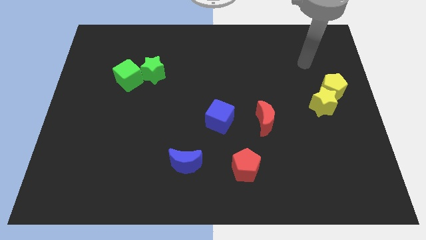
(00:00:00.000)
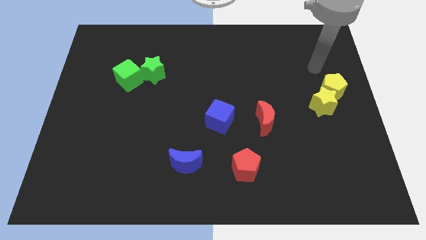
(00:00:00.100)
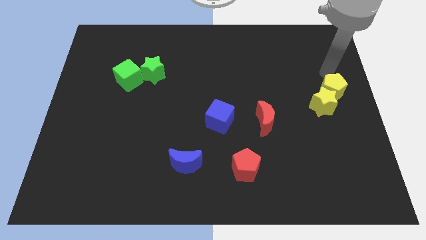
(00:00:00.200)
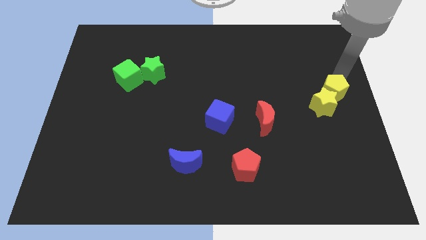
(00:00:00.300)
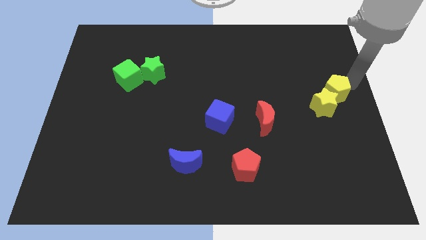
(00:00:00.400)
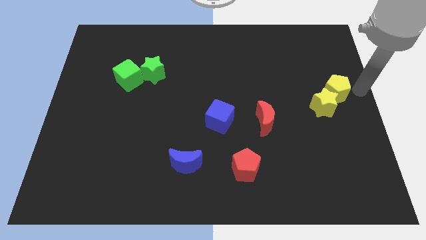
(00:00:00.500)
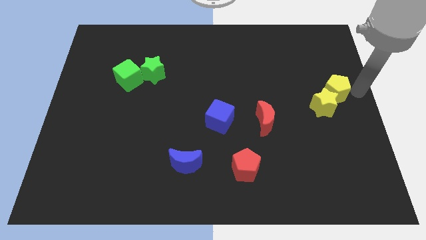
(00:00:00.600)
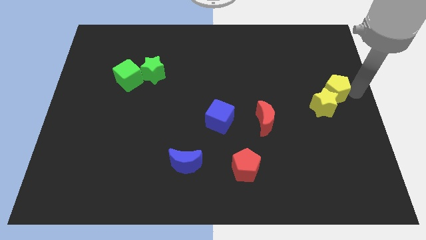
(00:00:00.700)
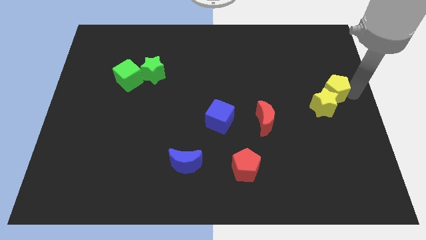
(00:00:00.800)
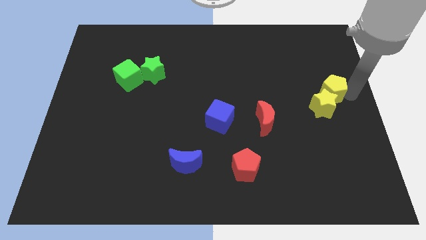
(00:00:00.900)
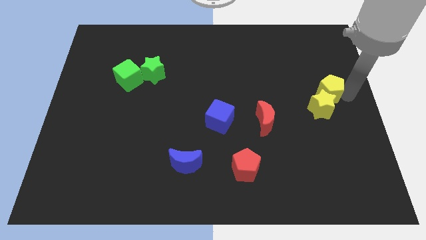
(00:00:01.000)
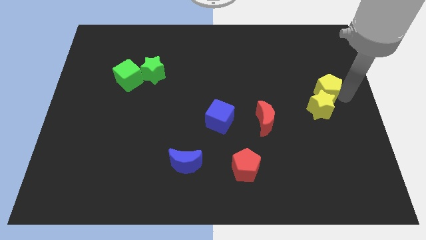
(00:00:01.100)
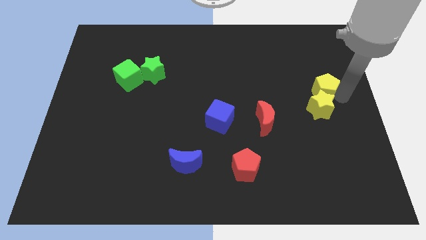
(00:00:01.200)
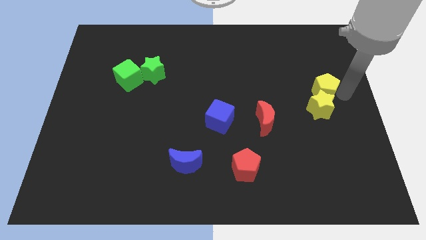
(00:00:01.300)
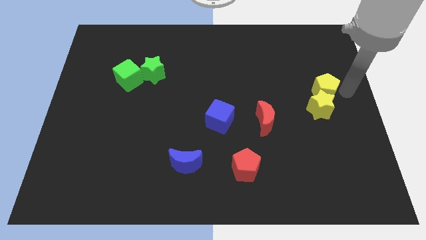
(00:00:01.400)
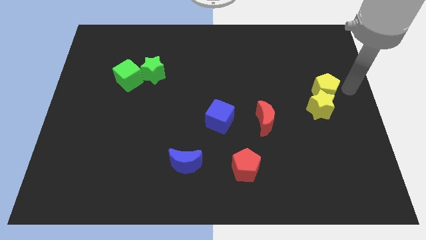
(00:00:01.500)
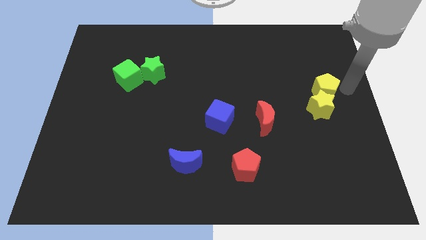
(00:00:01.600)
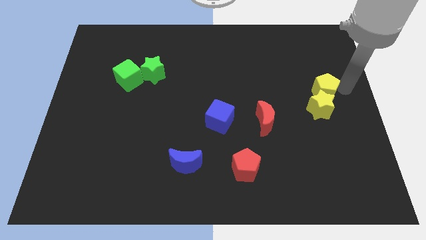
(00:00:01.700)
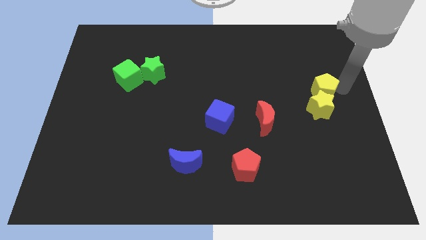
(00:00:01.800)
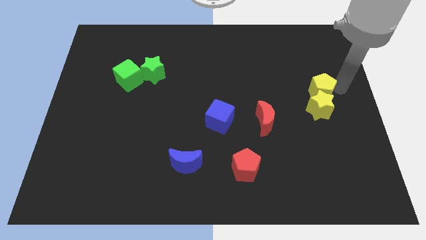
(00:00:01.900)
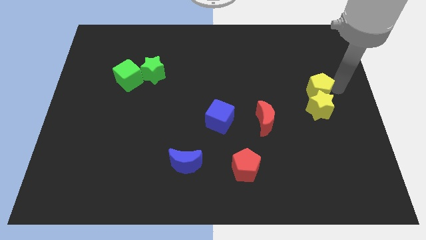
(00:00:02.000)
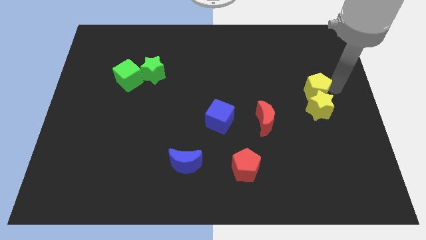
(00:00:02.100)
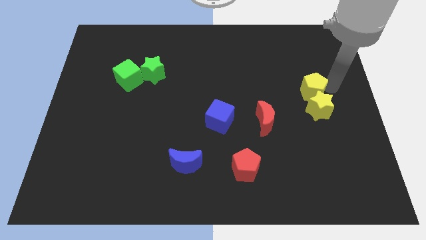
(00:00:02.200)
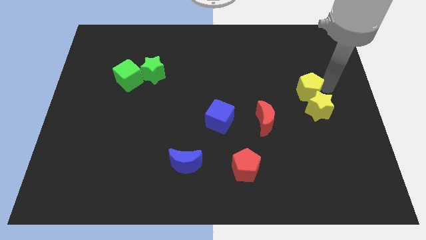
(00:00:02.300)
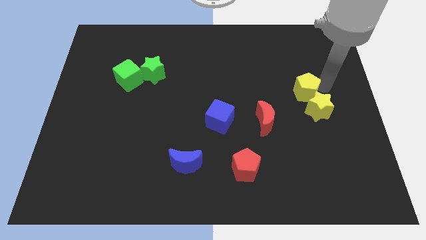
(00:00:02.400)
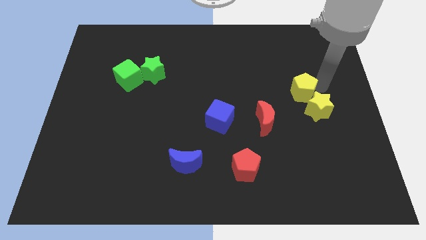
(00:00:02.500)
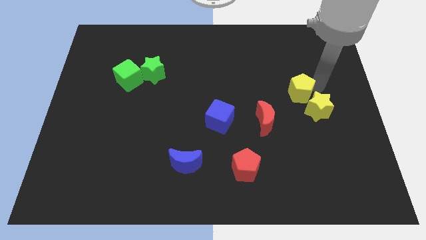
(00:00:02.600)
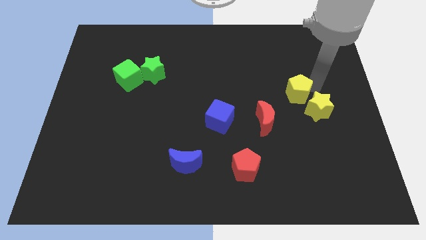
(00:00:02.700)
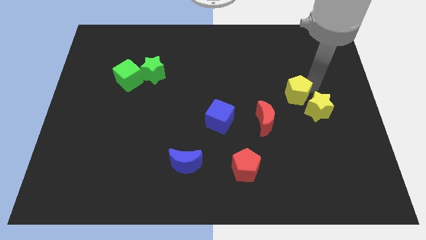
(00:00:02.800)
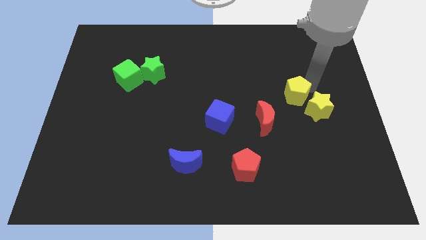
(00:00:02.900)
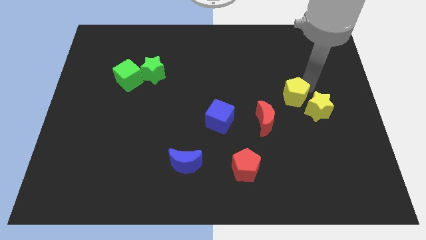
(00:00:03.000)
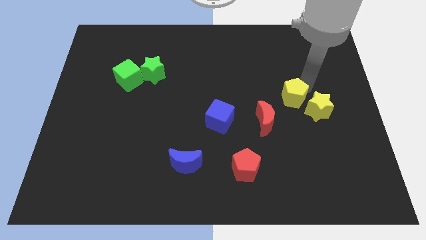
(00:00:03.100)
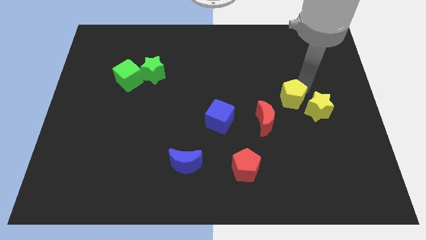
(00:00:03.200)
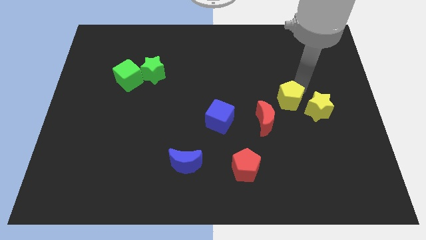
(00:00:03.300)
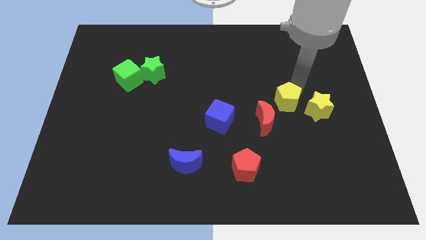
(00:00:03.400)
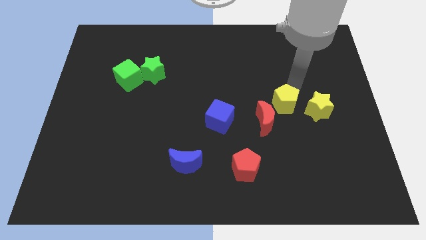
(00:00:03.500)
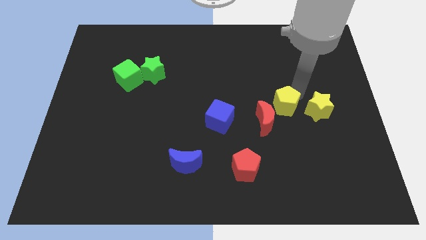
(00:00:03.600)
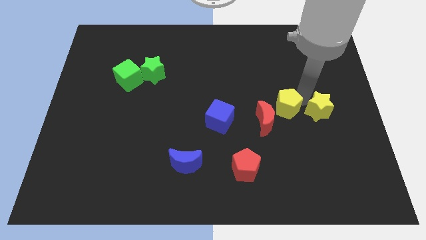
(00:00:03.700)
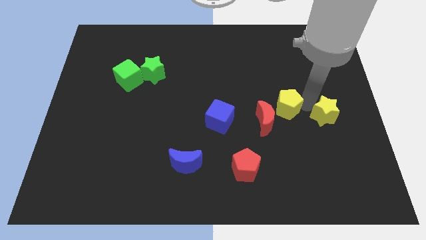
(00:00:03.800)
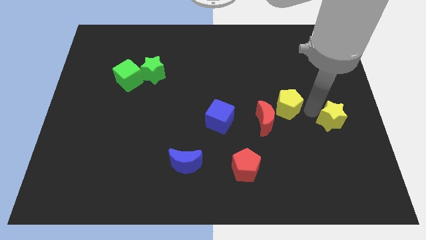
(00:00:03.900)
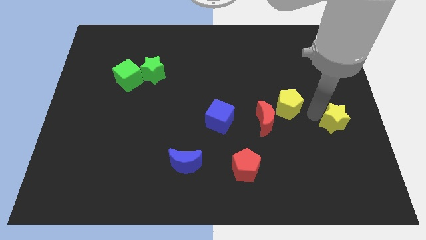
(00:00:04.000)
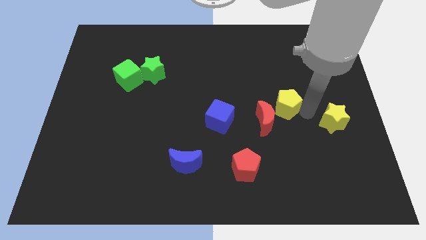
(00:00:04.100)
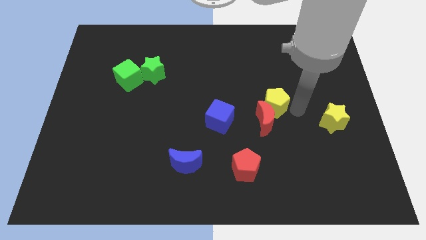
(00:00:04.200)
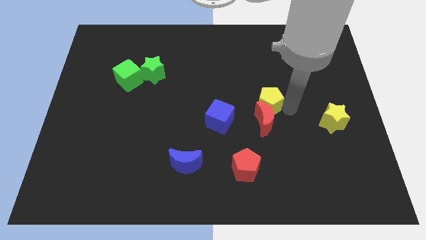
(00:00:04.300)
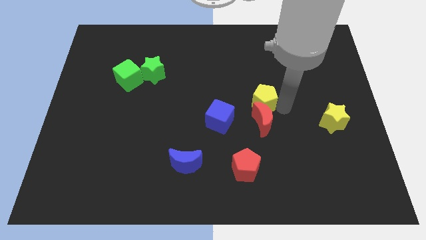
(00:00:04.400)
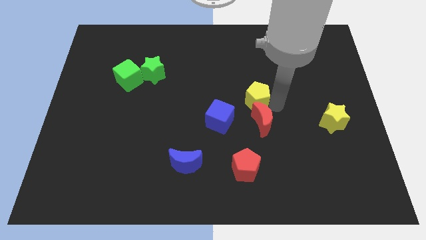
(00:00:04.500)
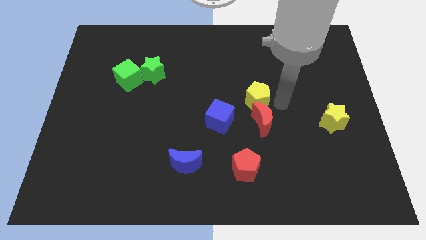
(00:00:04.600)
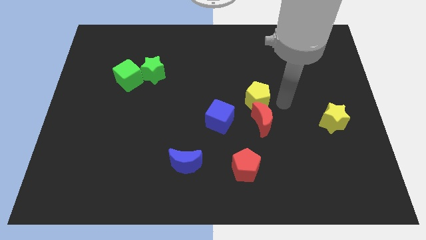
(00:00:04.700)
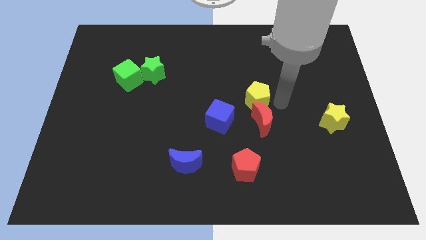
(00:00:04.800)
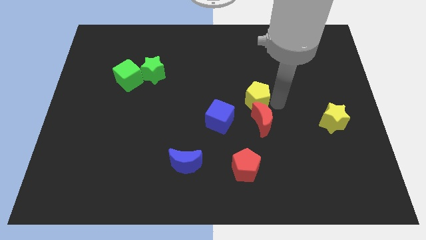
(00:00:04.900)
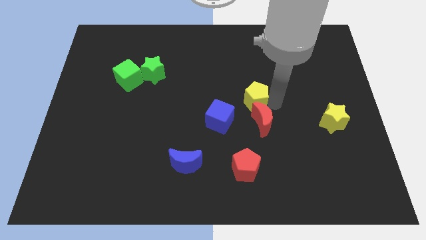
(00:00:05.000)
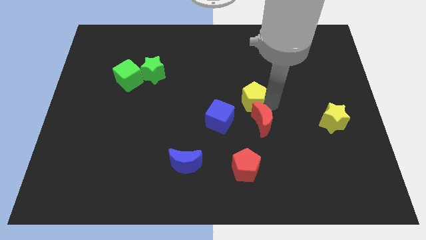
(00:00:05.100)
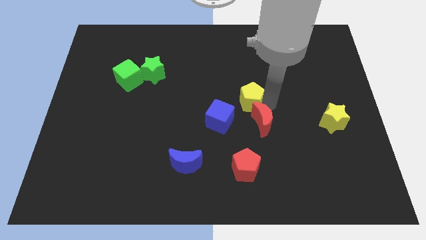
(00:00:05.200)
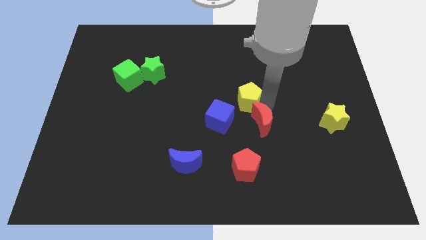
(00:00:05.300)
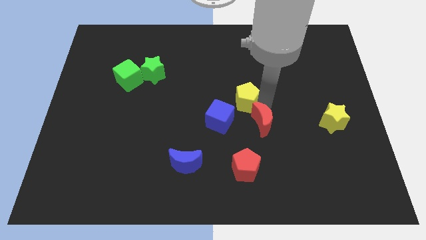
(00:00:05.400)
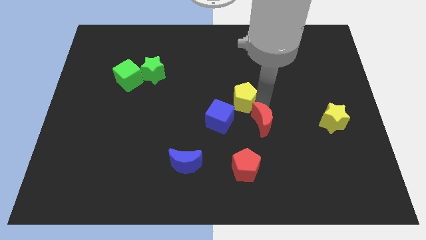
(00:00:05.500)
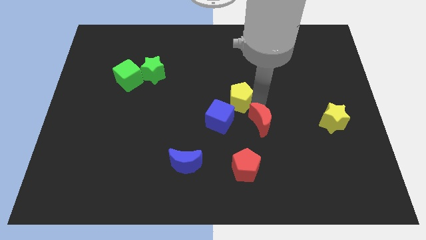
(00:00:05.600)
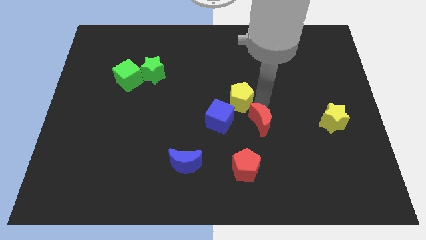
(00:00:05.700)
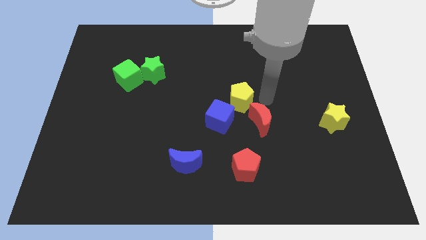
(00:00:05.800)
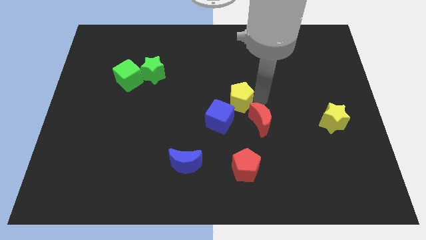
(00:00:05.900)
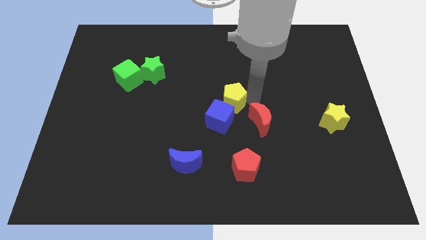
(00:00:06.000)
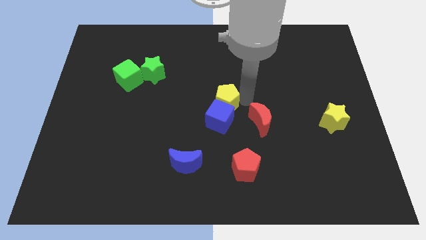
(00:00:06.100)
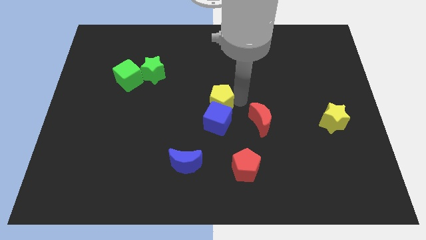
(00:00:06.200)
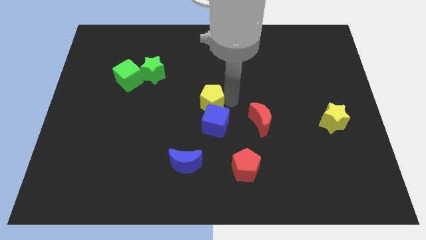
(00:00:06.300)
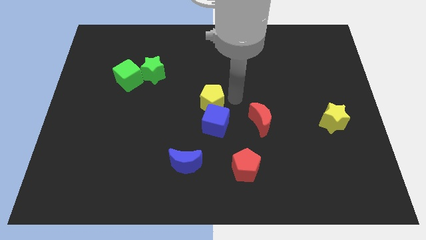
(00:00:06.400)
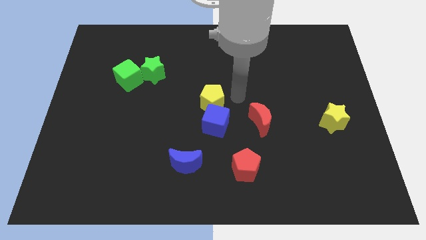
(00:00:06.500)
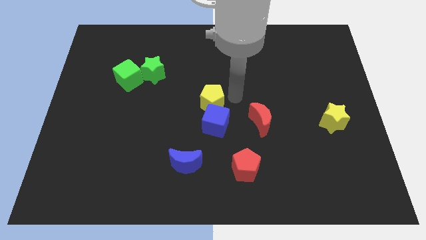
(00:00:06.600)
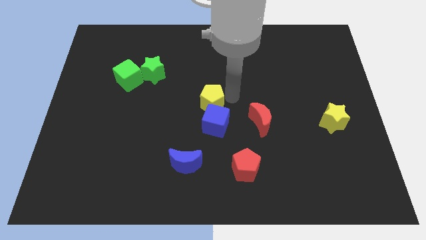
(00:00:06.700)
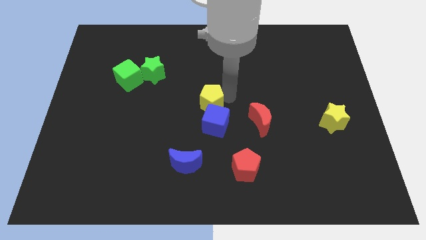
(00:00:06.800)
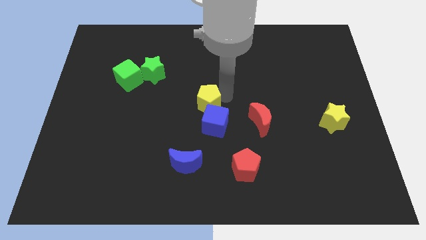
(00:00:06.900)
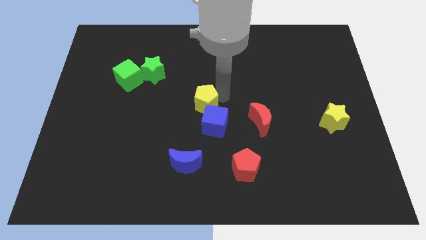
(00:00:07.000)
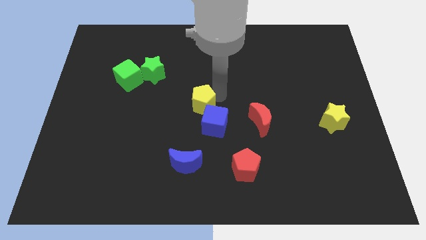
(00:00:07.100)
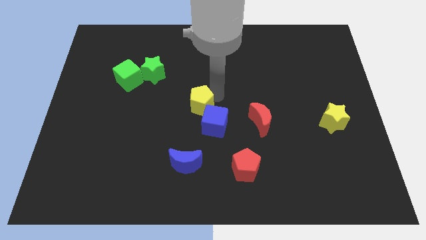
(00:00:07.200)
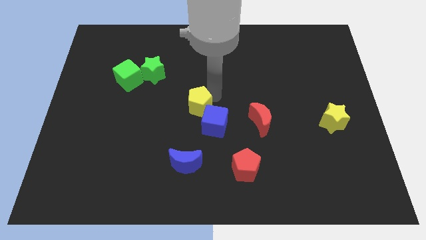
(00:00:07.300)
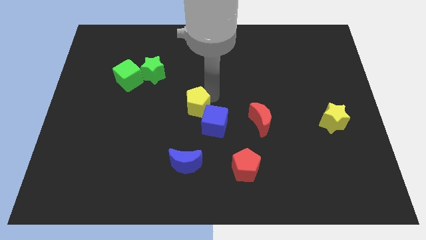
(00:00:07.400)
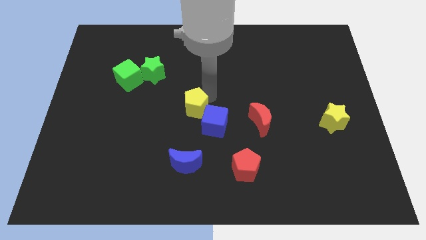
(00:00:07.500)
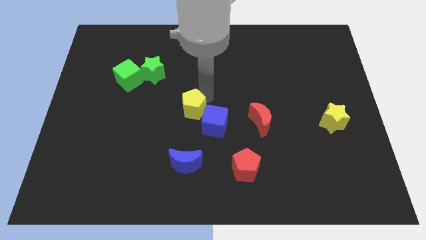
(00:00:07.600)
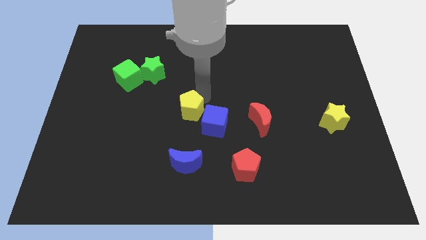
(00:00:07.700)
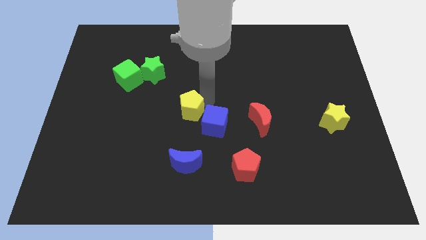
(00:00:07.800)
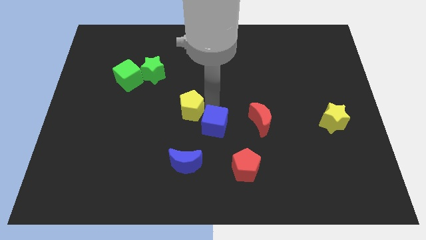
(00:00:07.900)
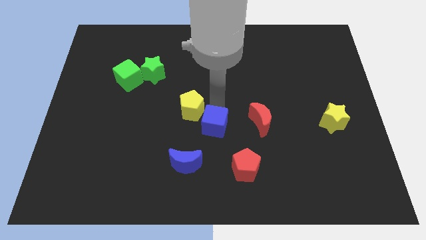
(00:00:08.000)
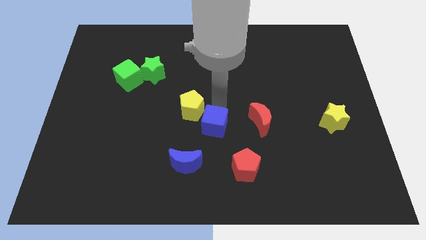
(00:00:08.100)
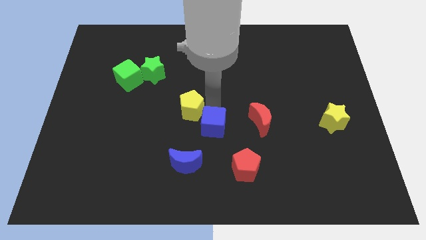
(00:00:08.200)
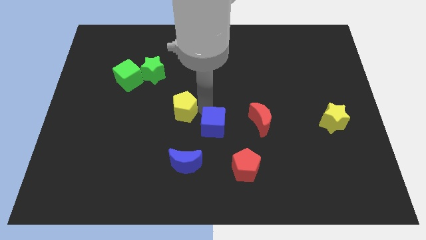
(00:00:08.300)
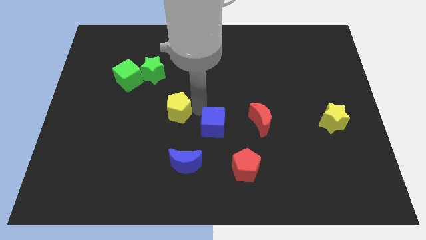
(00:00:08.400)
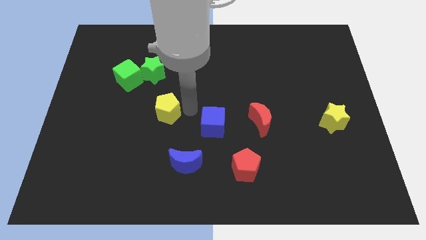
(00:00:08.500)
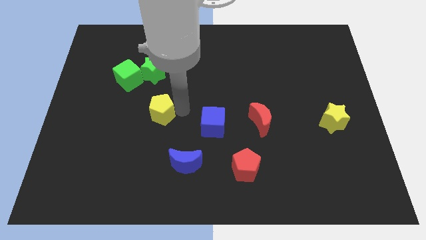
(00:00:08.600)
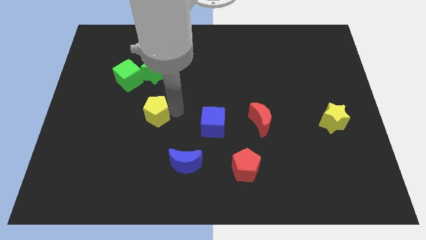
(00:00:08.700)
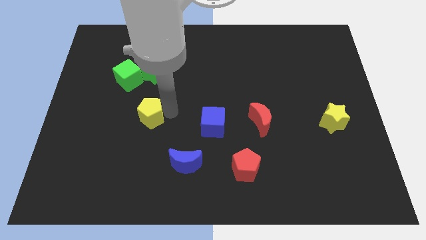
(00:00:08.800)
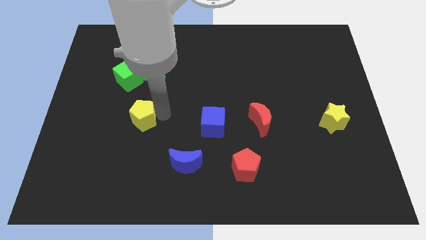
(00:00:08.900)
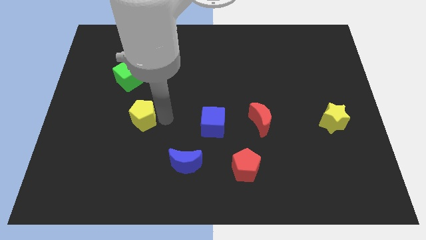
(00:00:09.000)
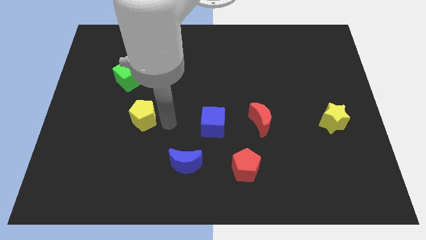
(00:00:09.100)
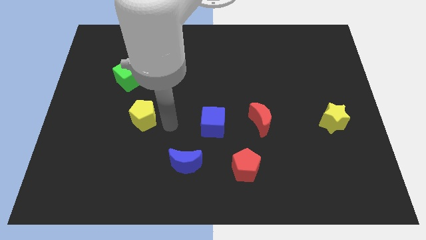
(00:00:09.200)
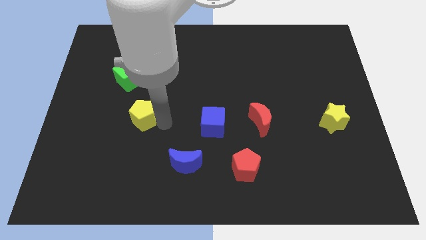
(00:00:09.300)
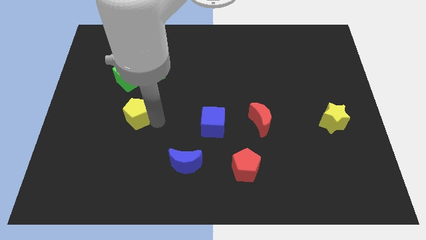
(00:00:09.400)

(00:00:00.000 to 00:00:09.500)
put the yellow pentagon to the bottom side of the green cube
